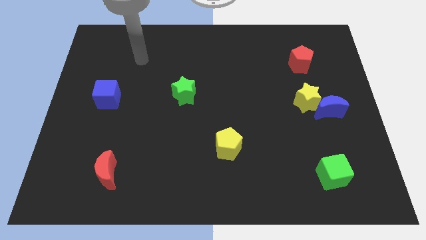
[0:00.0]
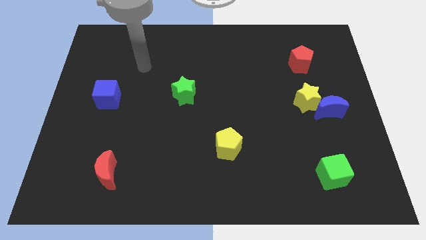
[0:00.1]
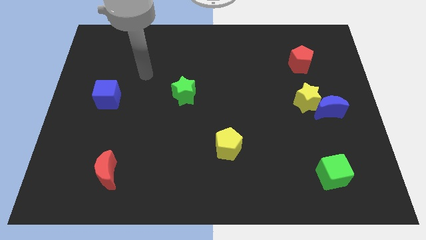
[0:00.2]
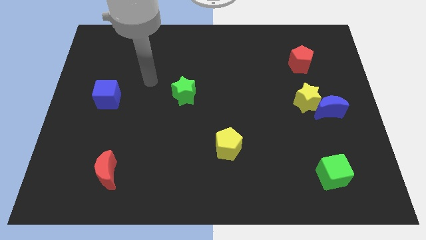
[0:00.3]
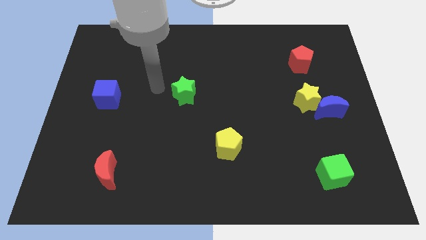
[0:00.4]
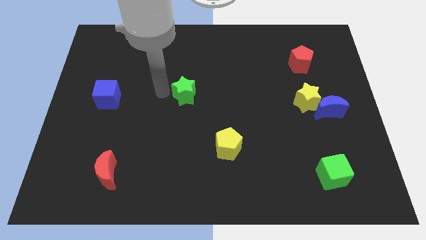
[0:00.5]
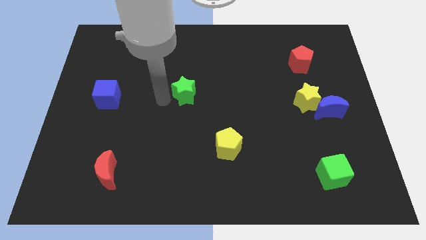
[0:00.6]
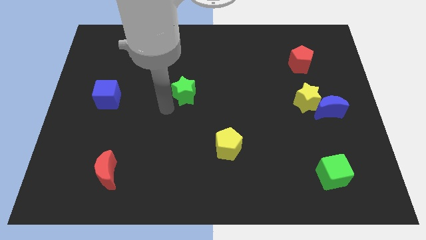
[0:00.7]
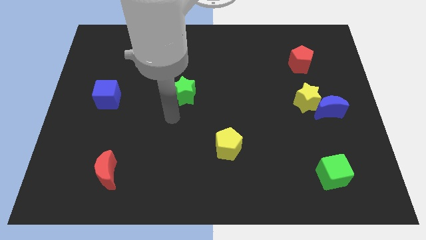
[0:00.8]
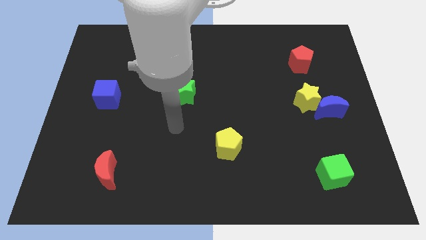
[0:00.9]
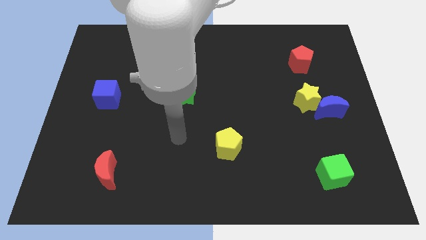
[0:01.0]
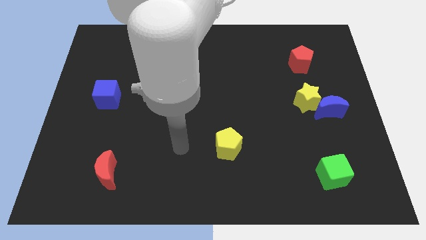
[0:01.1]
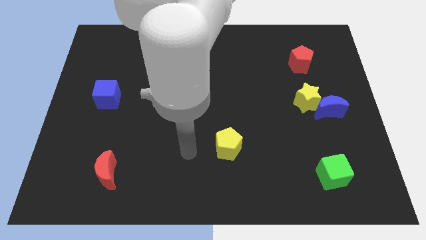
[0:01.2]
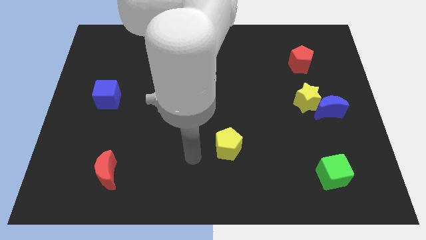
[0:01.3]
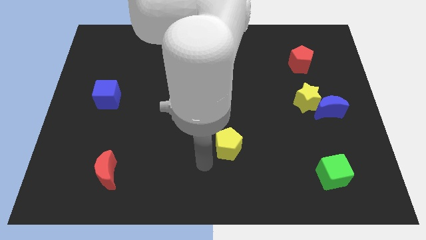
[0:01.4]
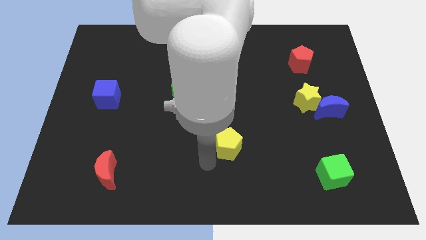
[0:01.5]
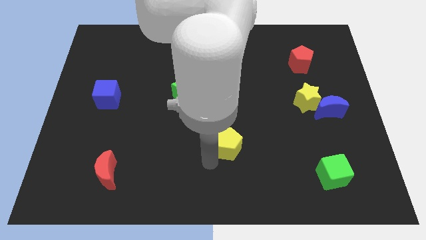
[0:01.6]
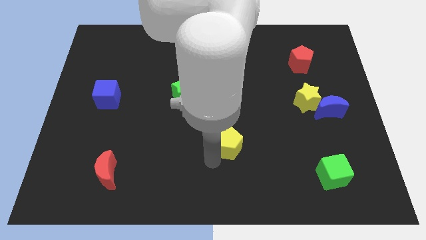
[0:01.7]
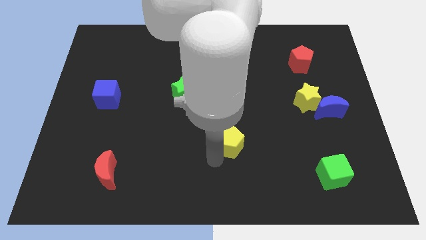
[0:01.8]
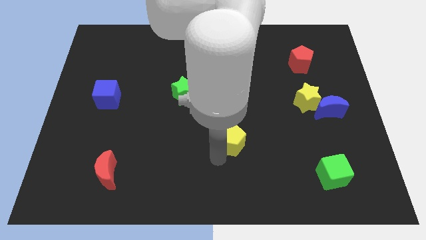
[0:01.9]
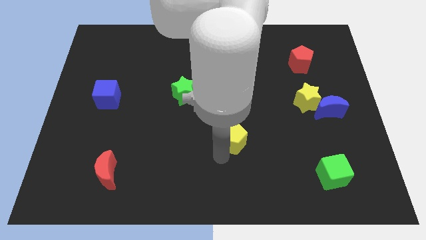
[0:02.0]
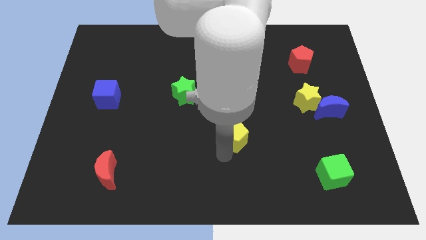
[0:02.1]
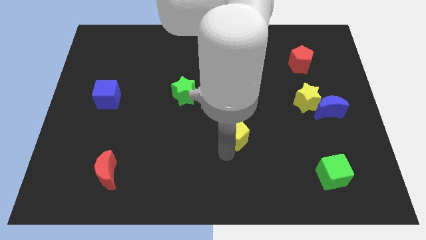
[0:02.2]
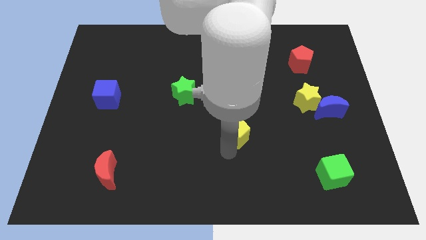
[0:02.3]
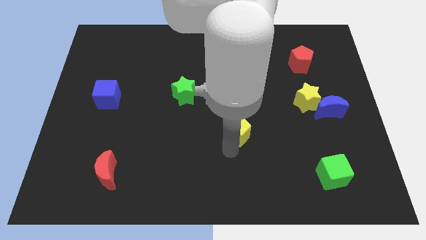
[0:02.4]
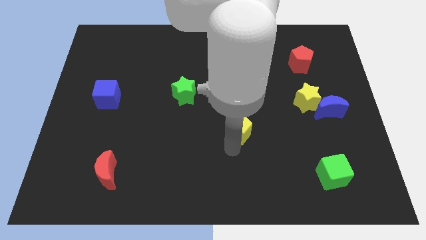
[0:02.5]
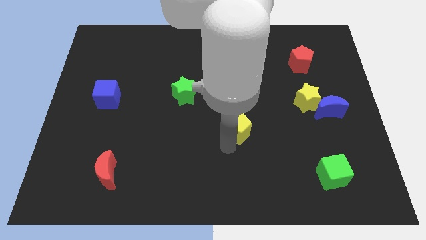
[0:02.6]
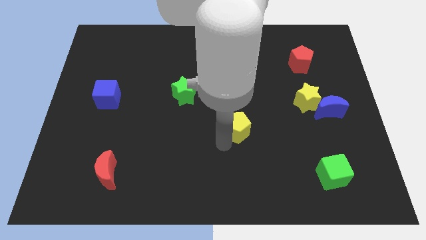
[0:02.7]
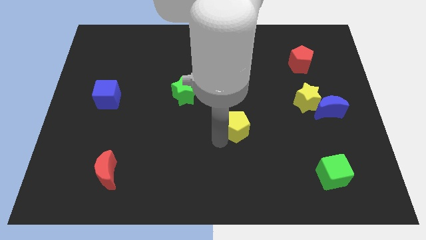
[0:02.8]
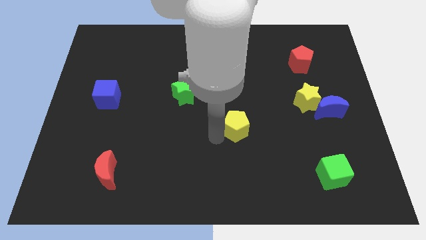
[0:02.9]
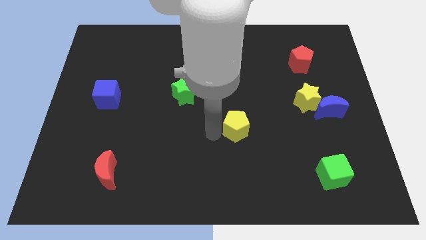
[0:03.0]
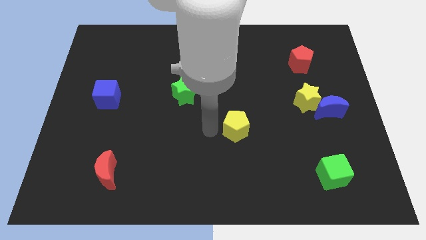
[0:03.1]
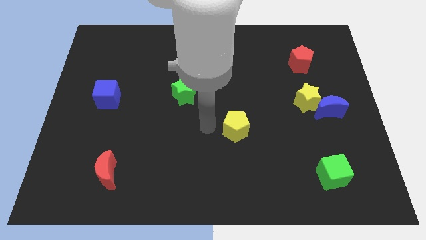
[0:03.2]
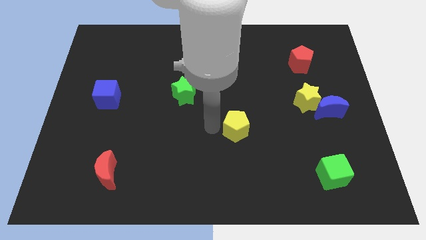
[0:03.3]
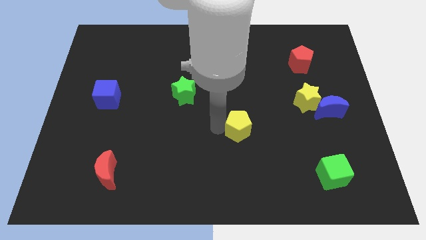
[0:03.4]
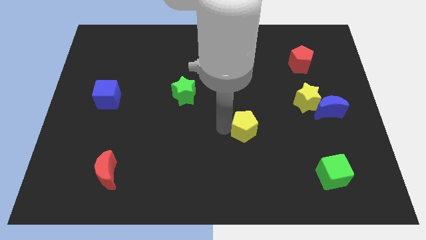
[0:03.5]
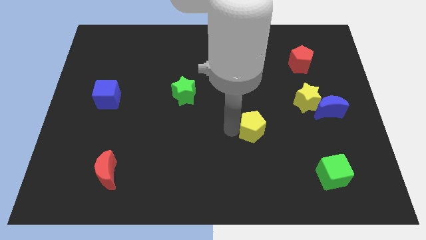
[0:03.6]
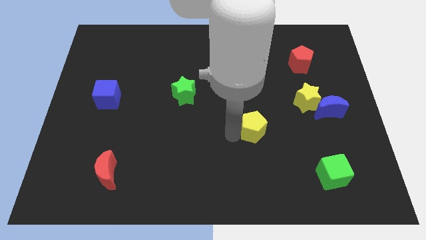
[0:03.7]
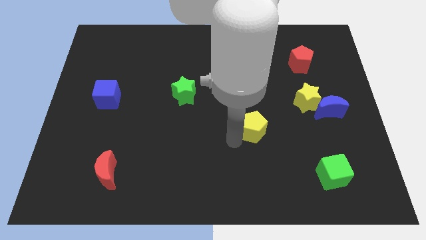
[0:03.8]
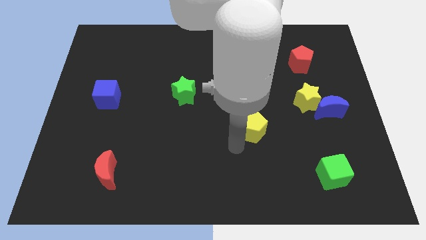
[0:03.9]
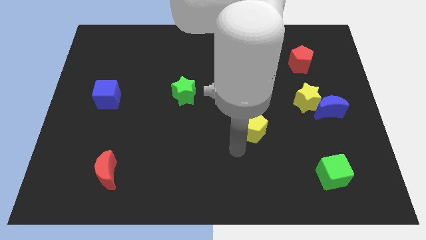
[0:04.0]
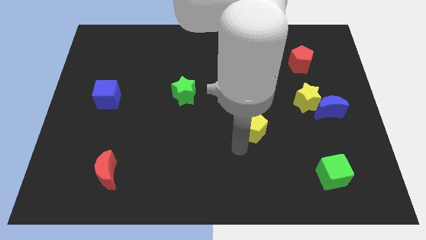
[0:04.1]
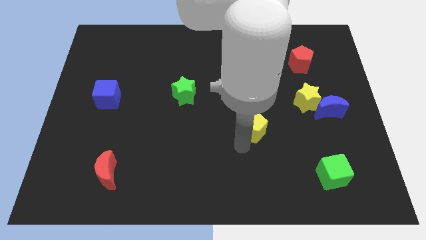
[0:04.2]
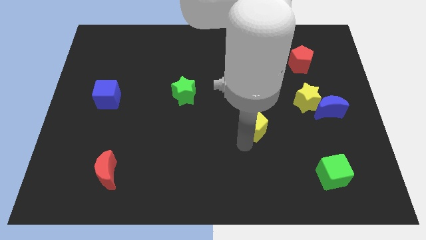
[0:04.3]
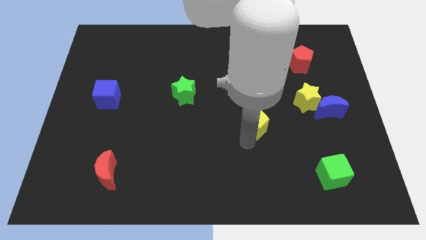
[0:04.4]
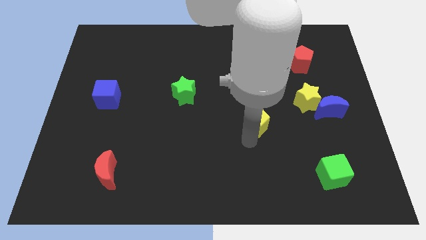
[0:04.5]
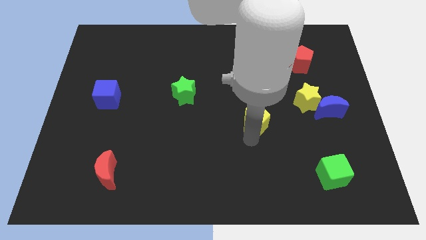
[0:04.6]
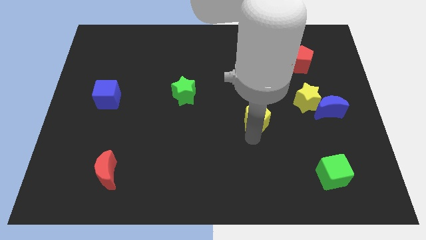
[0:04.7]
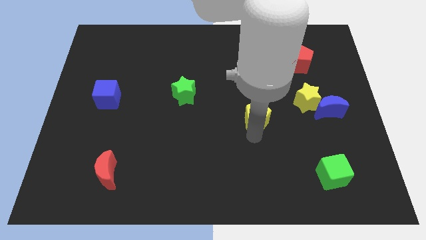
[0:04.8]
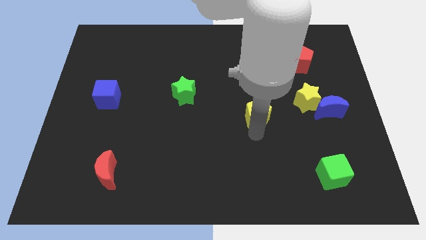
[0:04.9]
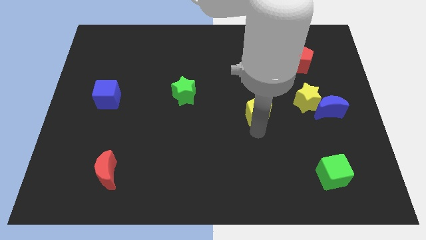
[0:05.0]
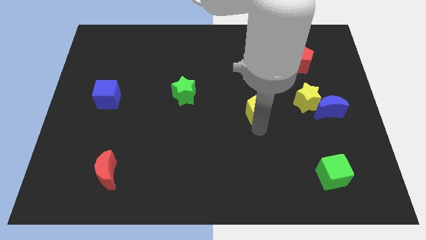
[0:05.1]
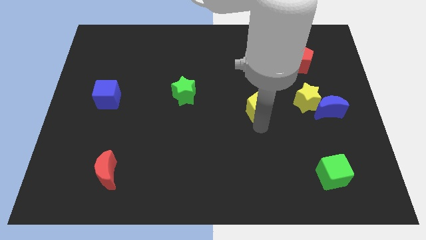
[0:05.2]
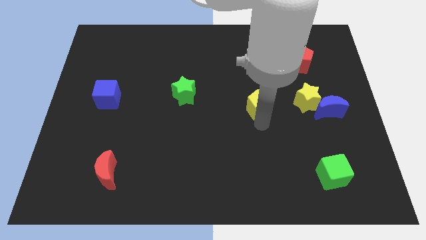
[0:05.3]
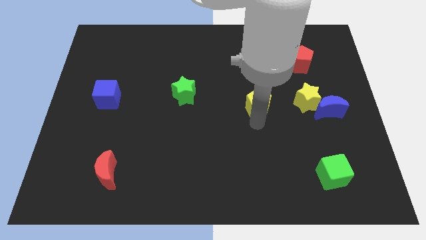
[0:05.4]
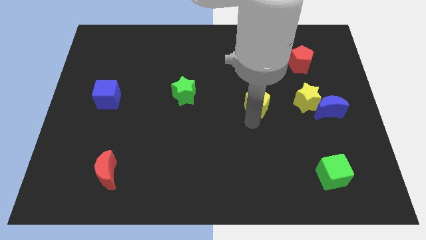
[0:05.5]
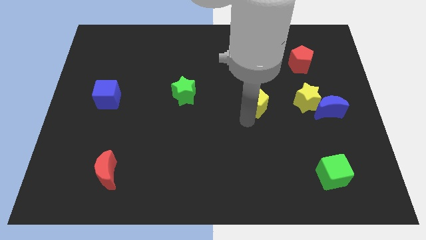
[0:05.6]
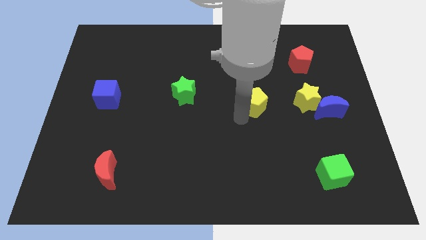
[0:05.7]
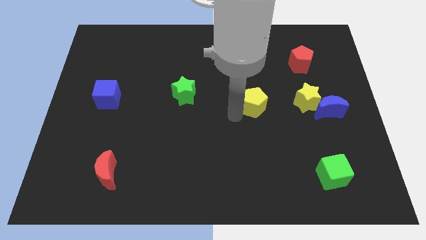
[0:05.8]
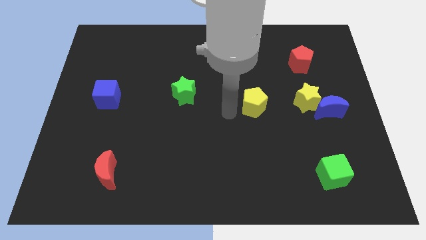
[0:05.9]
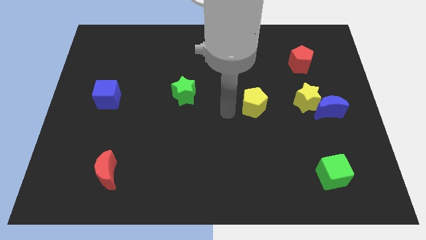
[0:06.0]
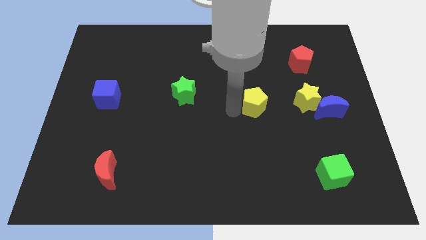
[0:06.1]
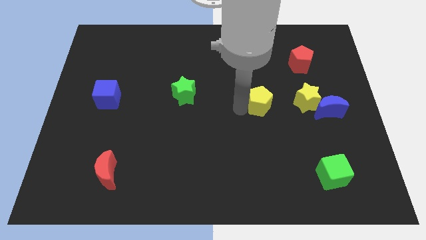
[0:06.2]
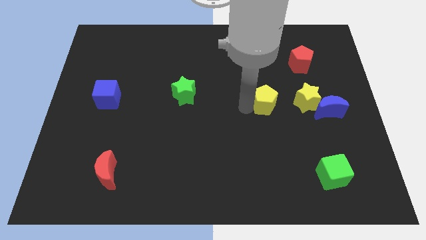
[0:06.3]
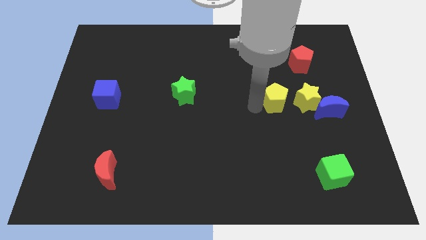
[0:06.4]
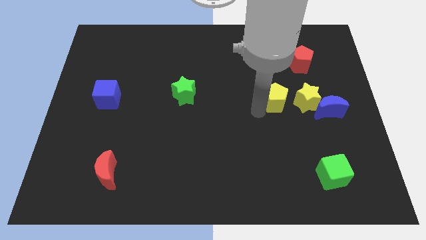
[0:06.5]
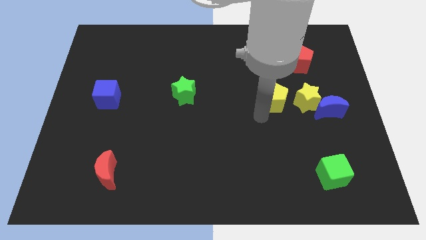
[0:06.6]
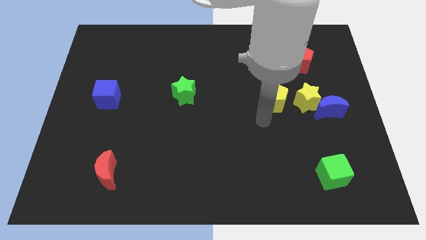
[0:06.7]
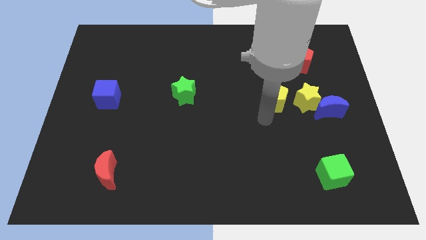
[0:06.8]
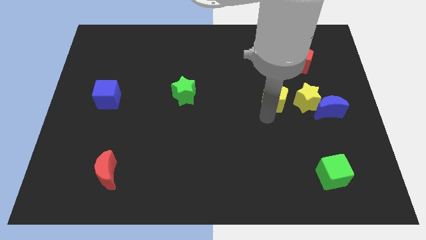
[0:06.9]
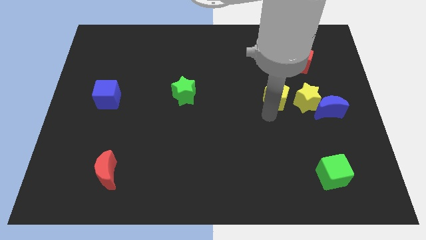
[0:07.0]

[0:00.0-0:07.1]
push the yellow pentagon to the top left of the yellow star
